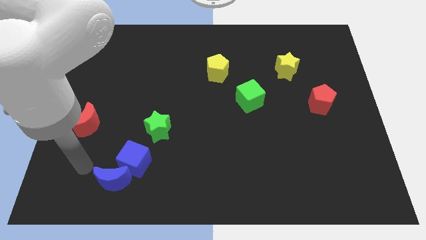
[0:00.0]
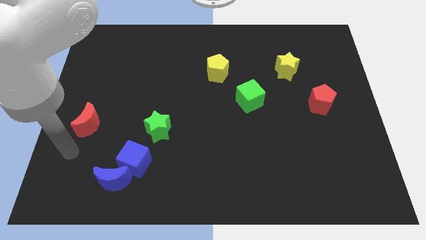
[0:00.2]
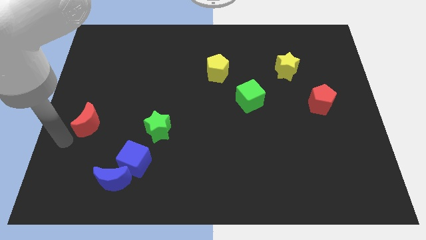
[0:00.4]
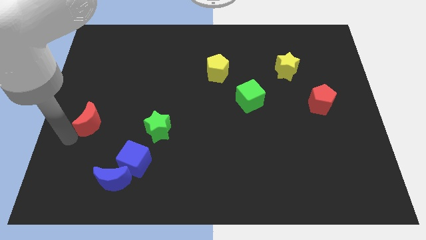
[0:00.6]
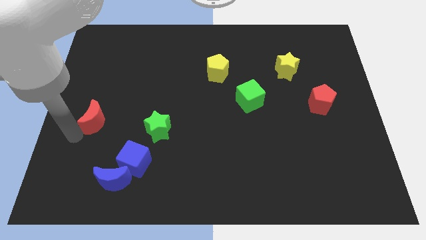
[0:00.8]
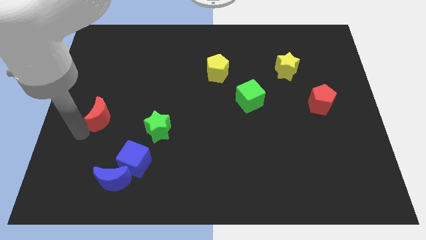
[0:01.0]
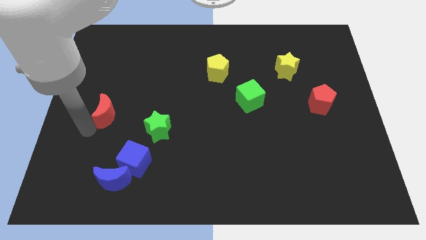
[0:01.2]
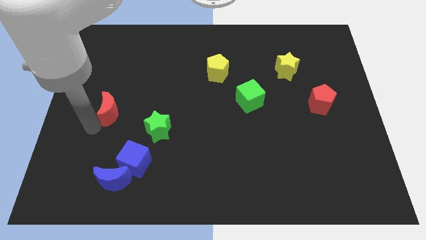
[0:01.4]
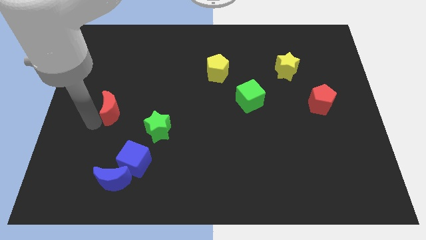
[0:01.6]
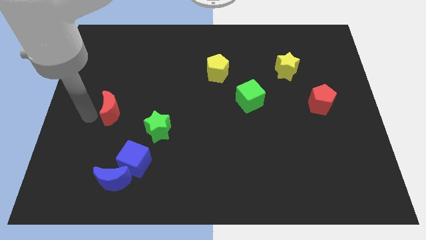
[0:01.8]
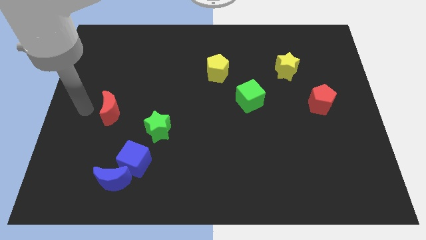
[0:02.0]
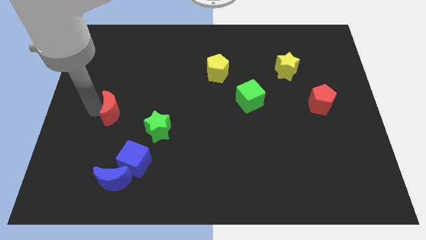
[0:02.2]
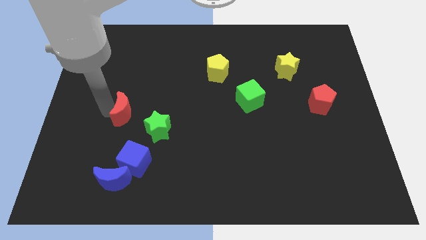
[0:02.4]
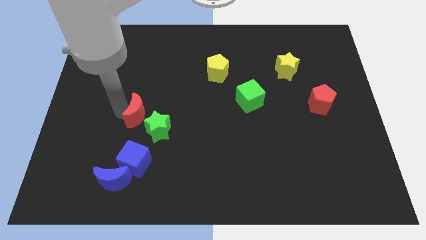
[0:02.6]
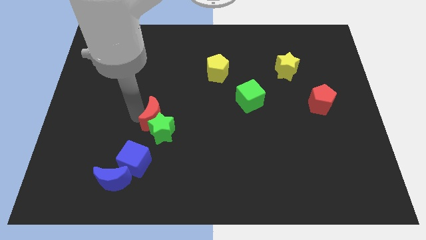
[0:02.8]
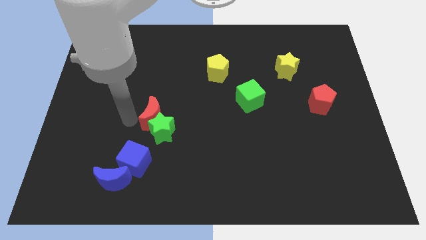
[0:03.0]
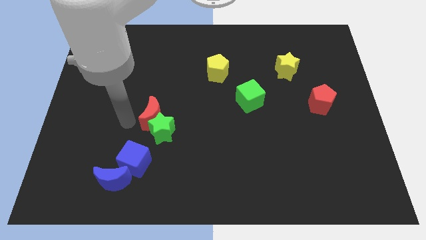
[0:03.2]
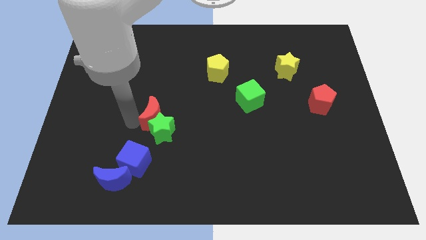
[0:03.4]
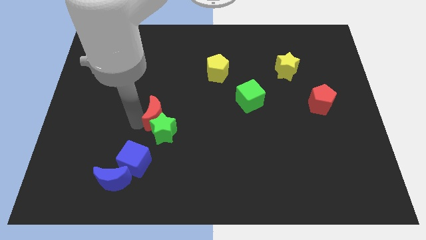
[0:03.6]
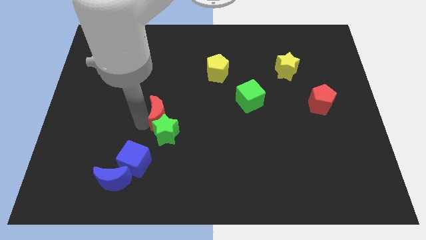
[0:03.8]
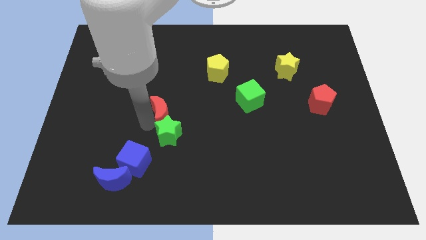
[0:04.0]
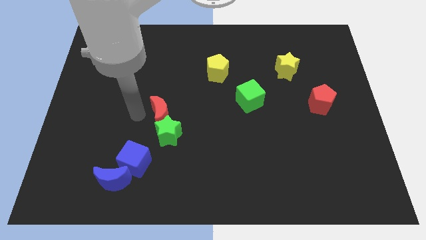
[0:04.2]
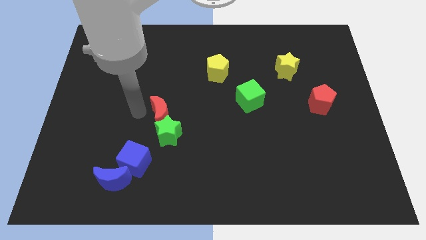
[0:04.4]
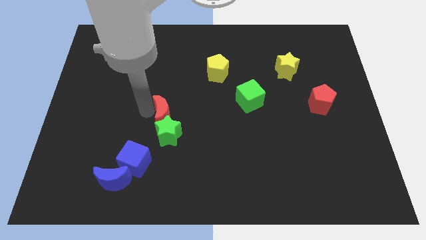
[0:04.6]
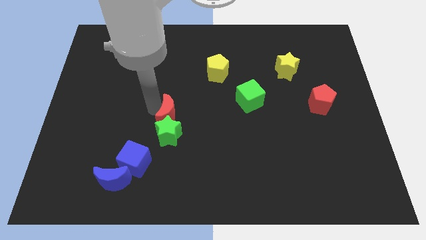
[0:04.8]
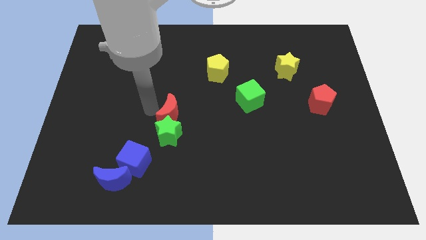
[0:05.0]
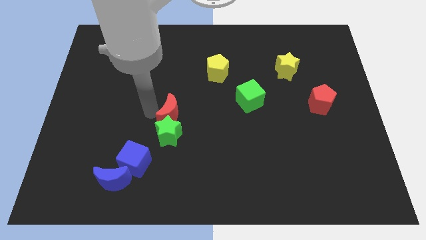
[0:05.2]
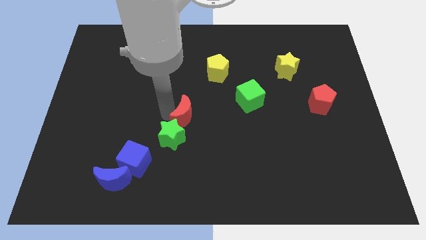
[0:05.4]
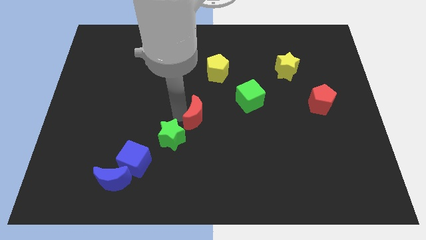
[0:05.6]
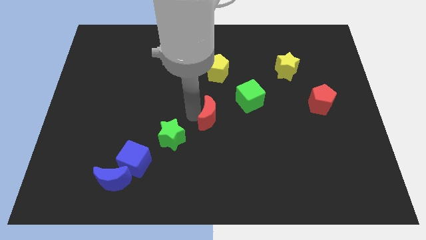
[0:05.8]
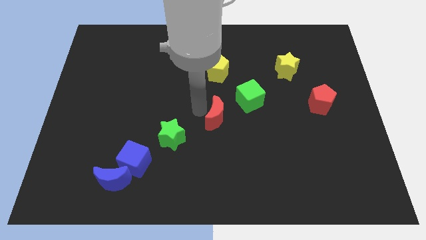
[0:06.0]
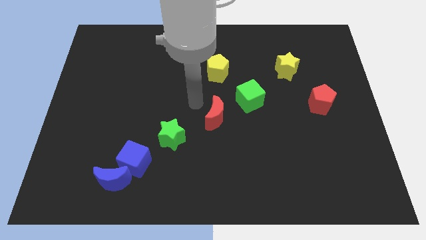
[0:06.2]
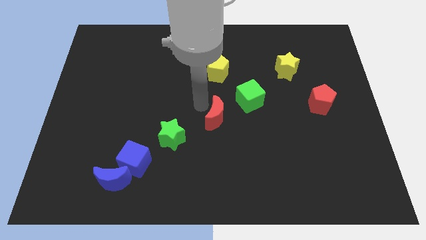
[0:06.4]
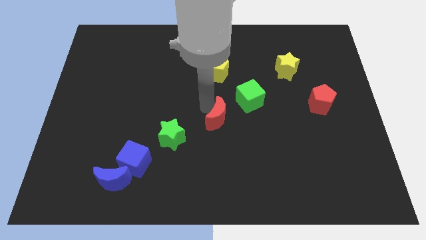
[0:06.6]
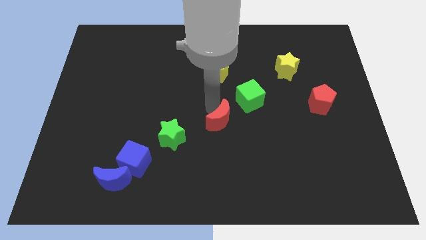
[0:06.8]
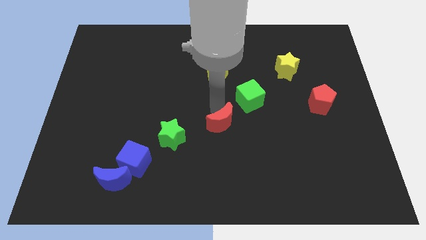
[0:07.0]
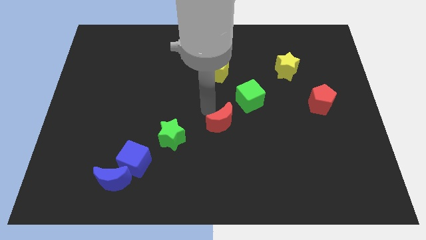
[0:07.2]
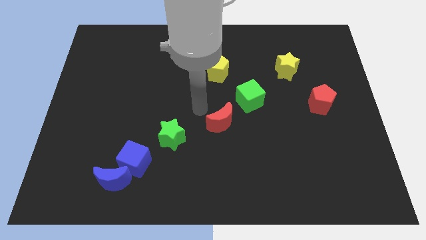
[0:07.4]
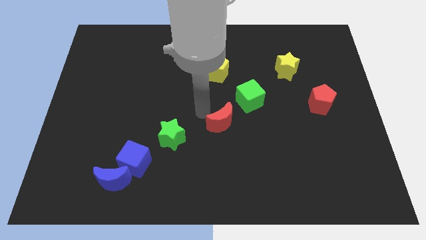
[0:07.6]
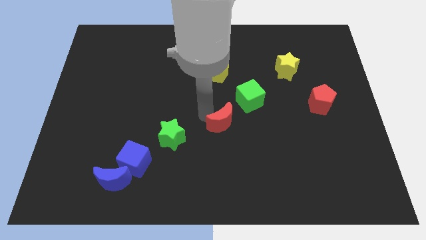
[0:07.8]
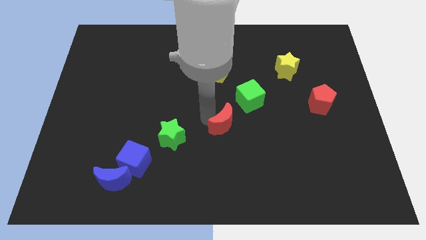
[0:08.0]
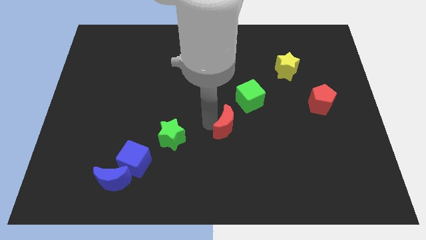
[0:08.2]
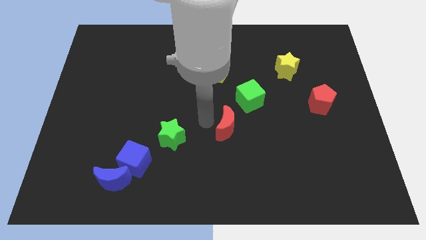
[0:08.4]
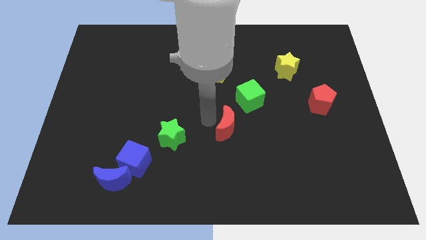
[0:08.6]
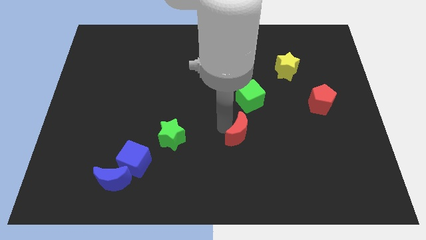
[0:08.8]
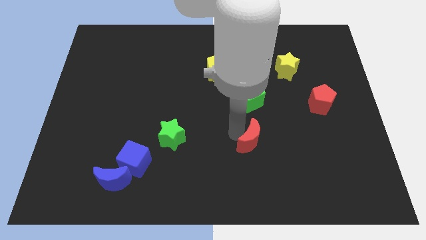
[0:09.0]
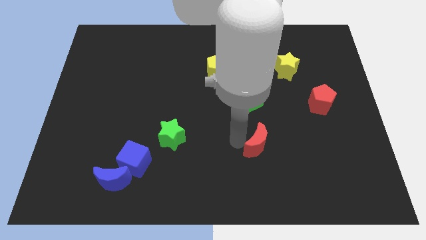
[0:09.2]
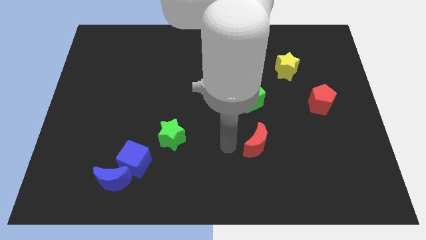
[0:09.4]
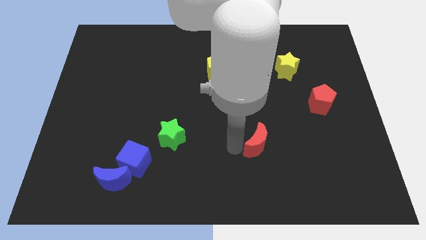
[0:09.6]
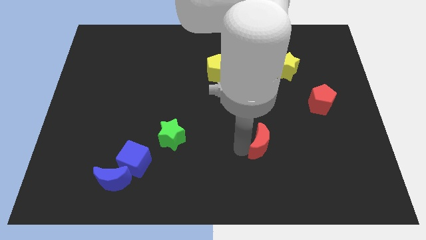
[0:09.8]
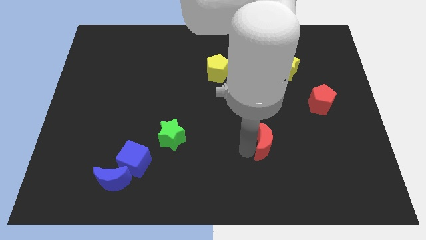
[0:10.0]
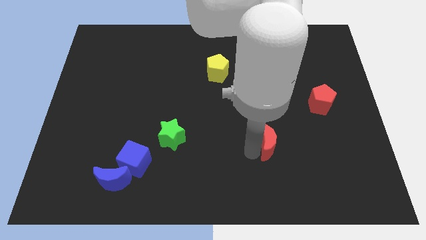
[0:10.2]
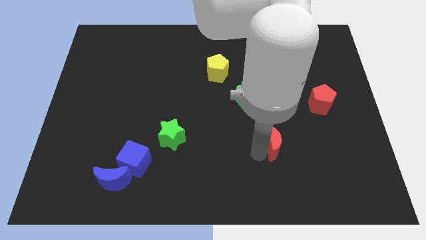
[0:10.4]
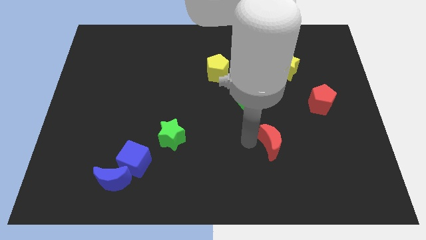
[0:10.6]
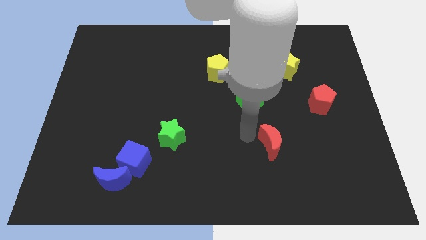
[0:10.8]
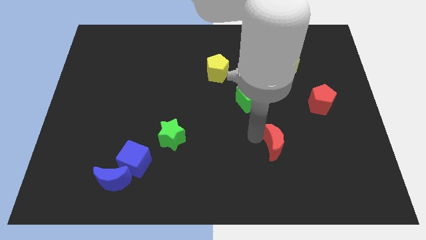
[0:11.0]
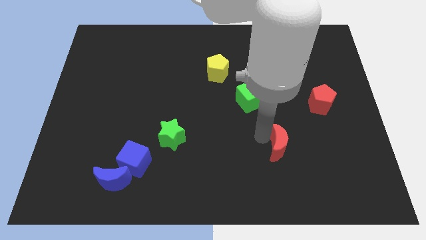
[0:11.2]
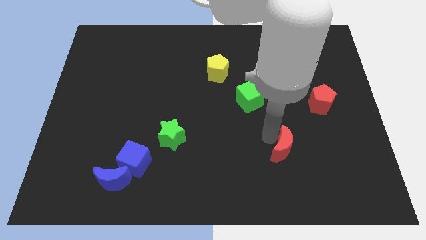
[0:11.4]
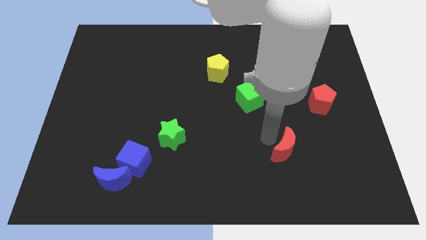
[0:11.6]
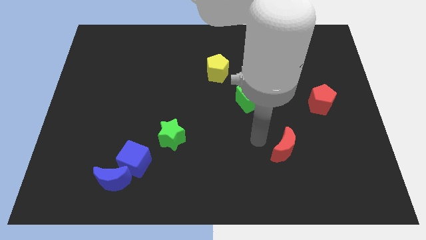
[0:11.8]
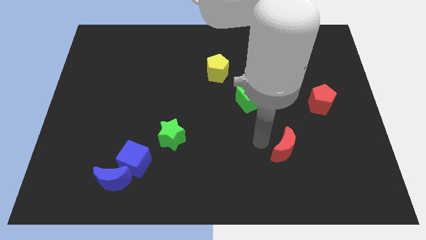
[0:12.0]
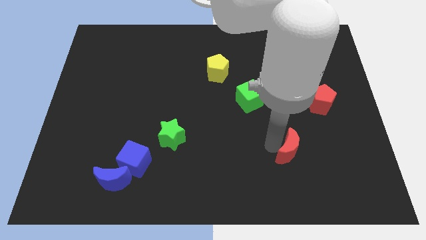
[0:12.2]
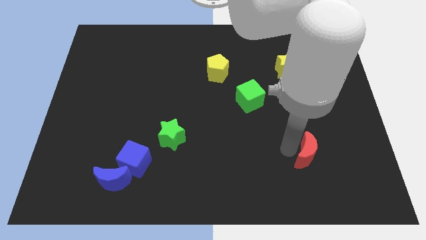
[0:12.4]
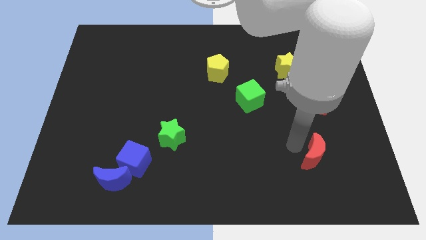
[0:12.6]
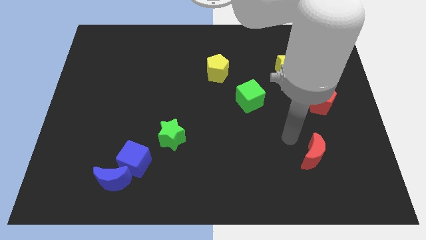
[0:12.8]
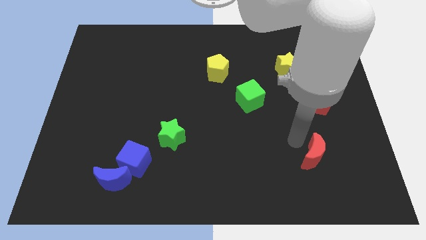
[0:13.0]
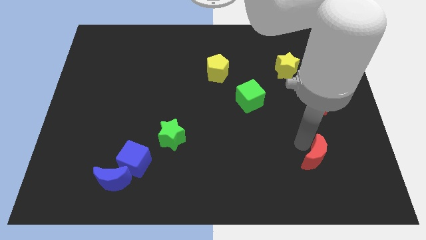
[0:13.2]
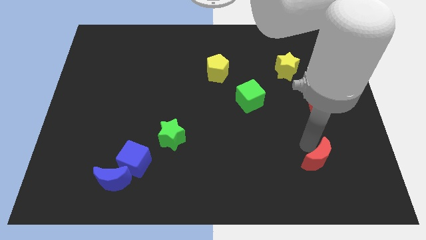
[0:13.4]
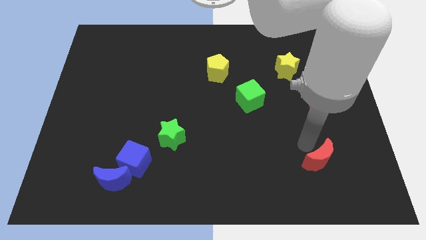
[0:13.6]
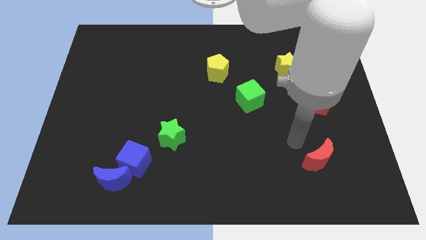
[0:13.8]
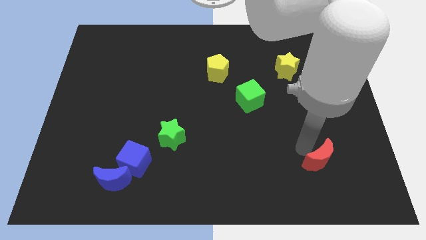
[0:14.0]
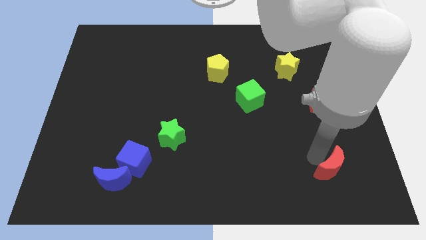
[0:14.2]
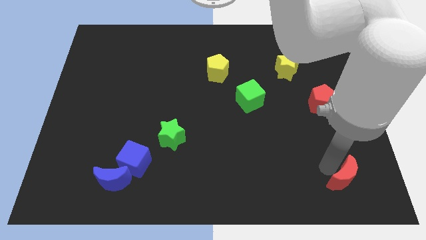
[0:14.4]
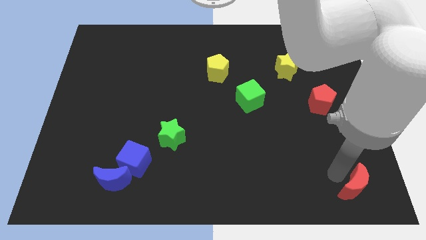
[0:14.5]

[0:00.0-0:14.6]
put the red moon to the bottom right
